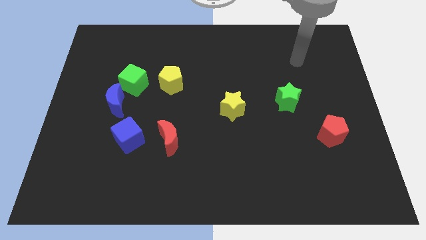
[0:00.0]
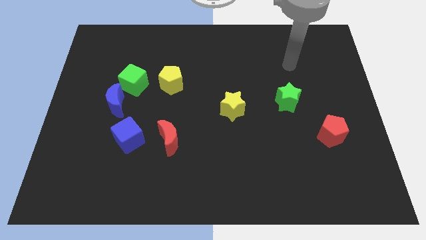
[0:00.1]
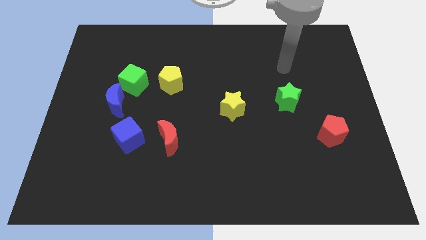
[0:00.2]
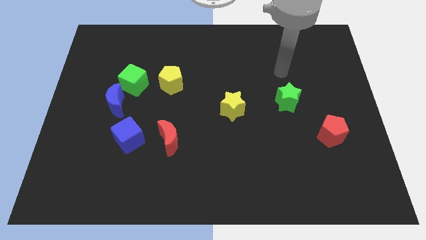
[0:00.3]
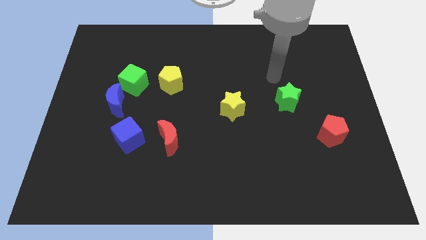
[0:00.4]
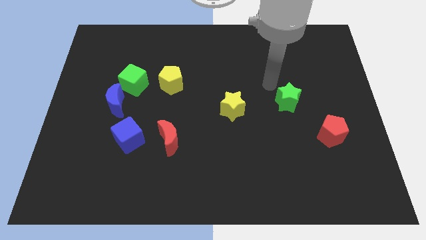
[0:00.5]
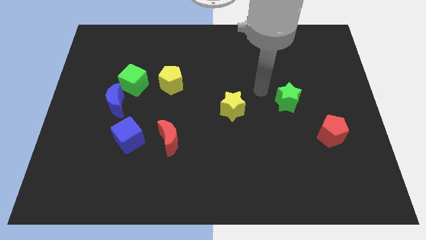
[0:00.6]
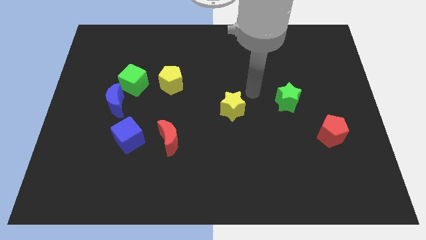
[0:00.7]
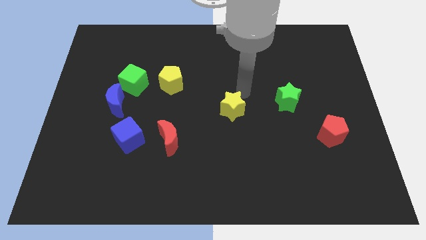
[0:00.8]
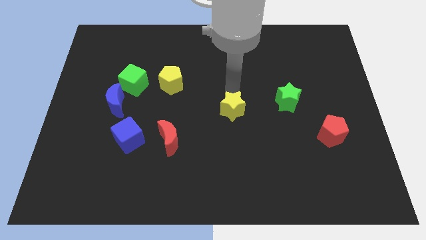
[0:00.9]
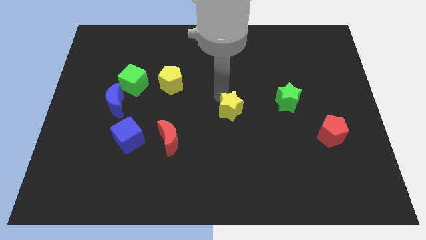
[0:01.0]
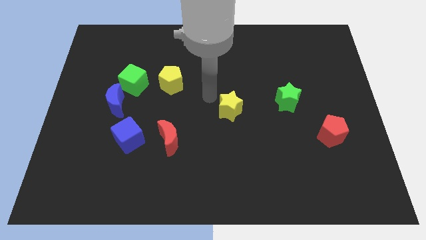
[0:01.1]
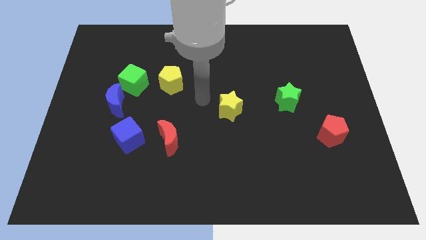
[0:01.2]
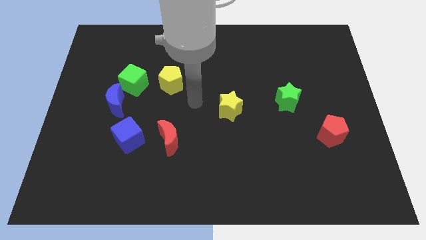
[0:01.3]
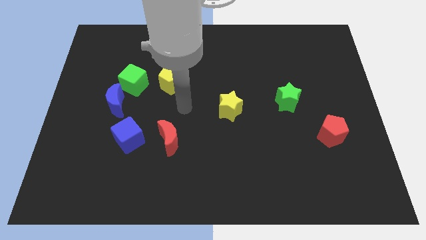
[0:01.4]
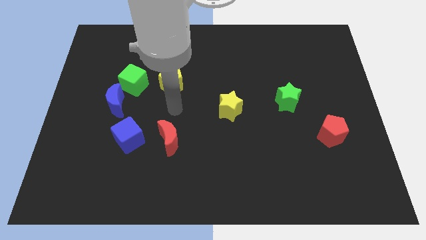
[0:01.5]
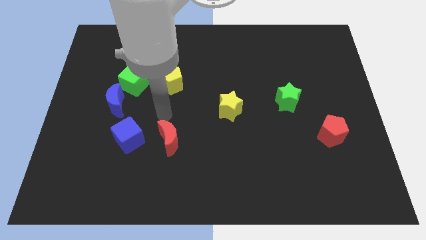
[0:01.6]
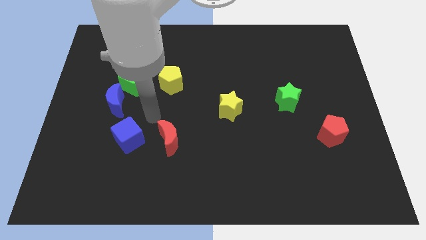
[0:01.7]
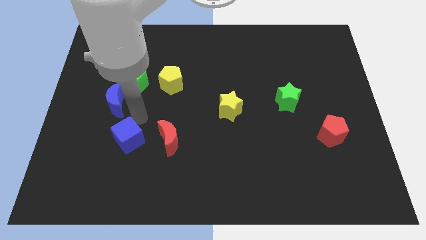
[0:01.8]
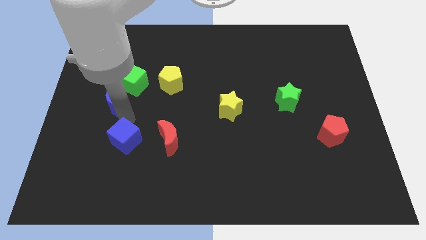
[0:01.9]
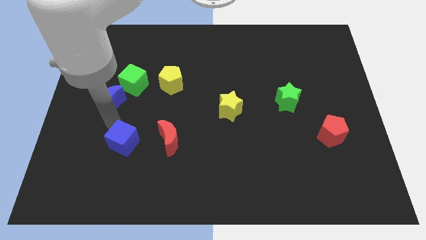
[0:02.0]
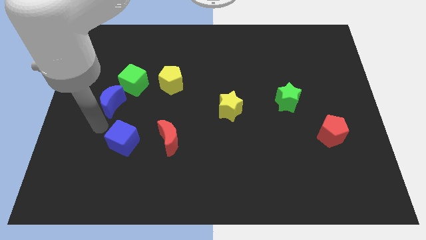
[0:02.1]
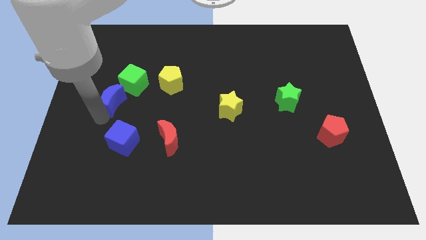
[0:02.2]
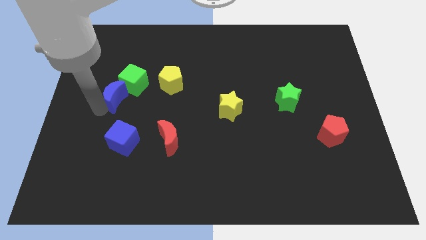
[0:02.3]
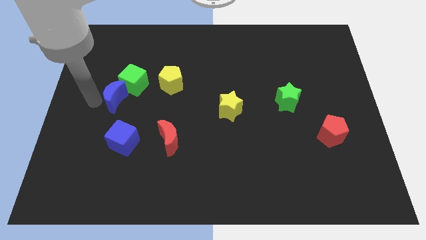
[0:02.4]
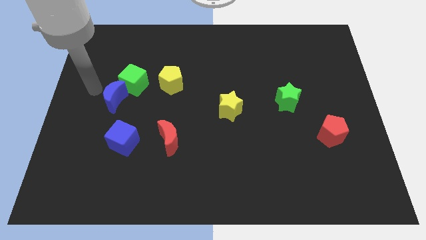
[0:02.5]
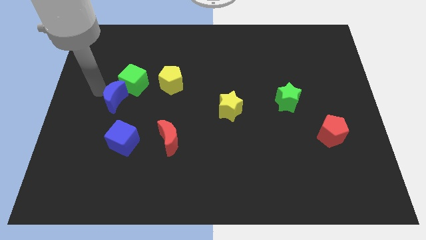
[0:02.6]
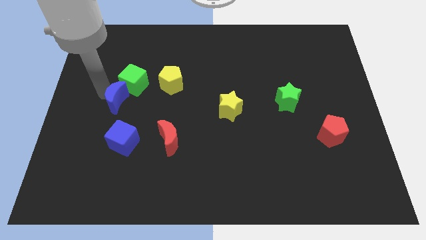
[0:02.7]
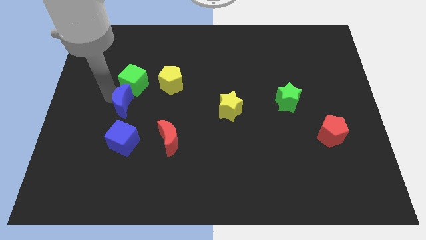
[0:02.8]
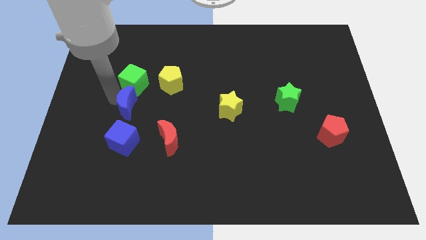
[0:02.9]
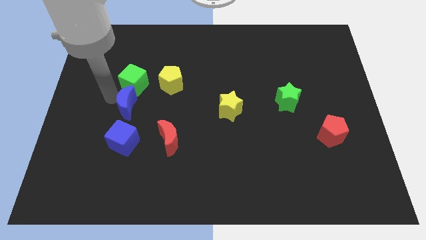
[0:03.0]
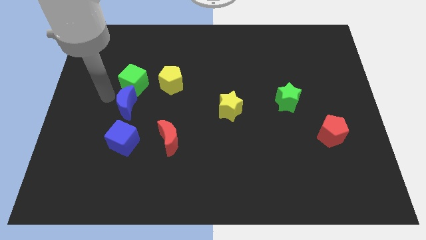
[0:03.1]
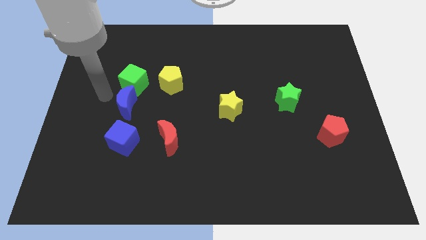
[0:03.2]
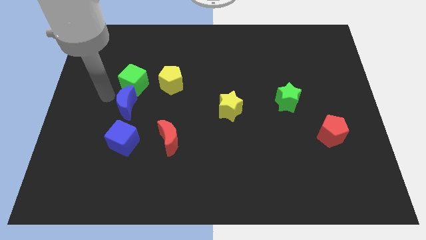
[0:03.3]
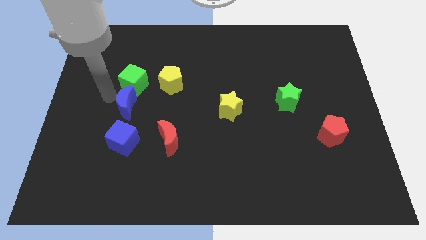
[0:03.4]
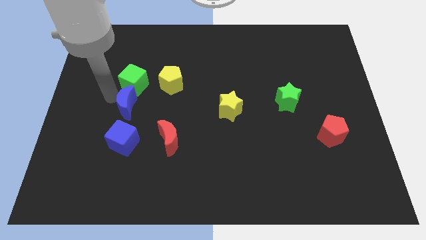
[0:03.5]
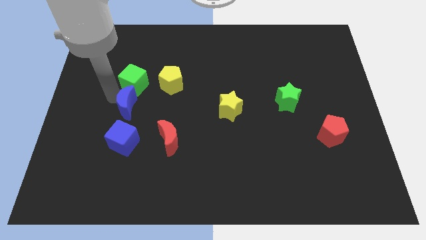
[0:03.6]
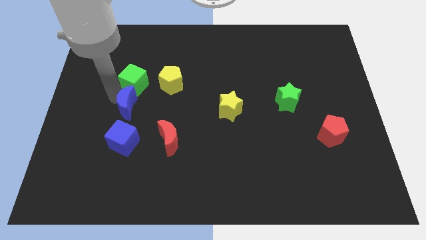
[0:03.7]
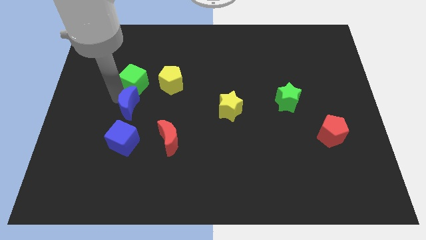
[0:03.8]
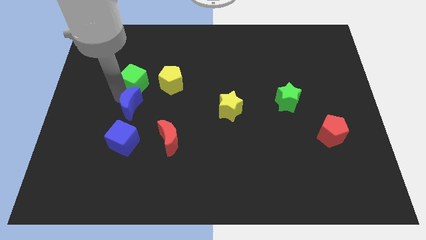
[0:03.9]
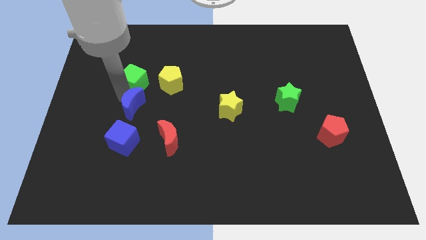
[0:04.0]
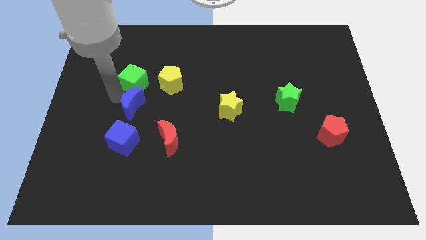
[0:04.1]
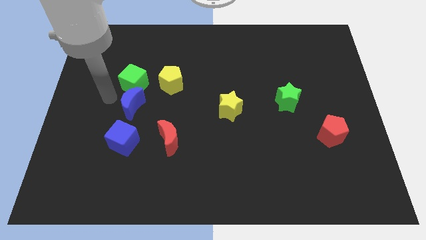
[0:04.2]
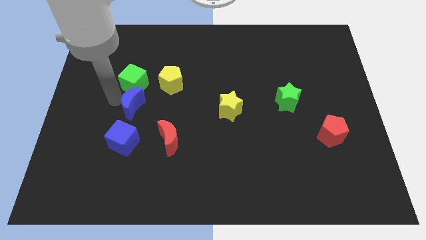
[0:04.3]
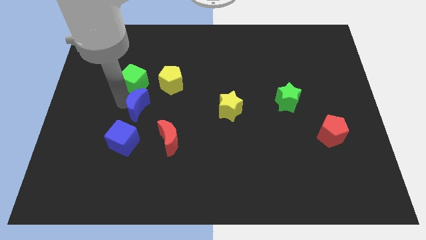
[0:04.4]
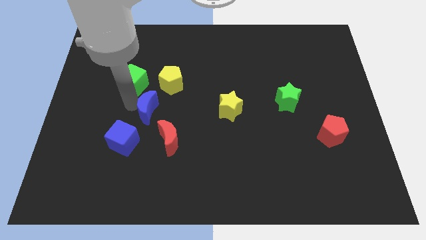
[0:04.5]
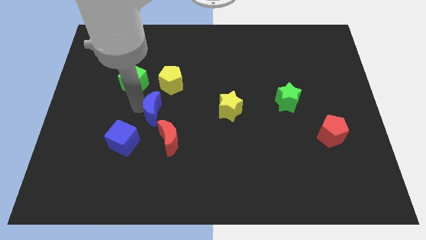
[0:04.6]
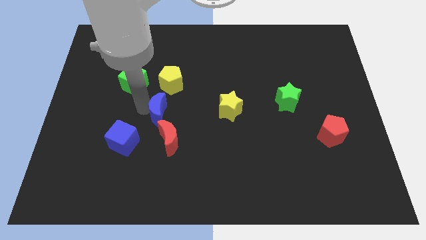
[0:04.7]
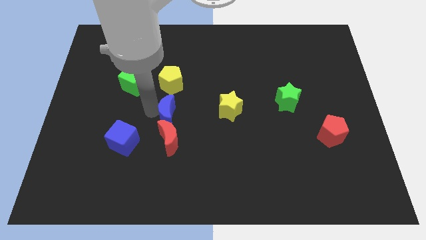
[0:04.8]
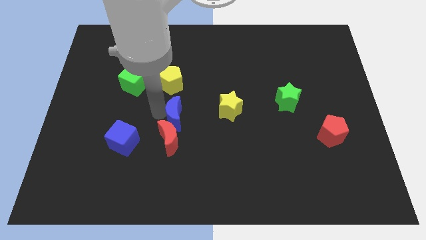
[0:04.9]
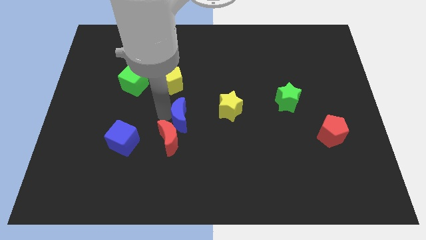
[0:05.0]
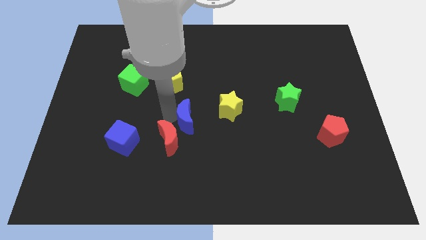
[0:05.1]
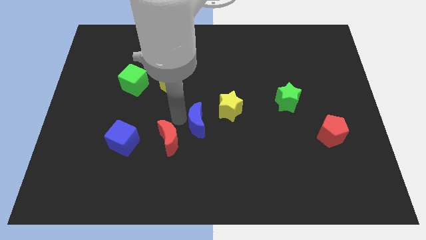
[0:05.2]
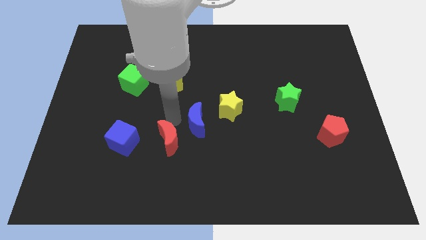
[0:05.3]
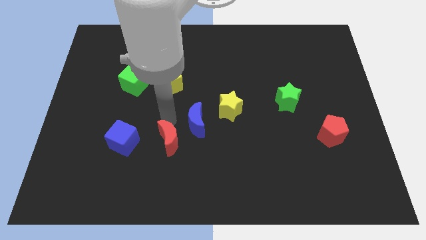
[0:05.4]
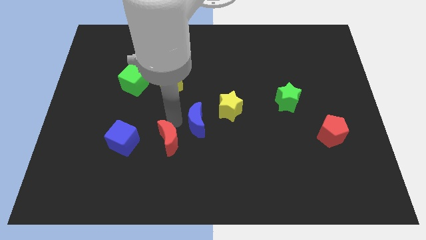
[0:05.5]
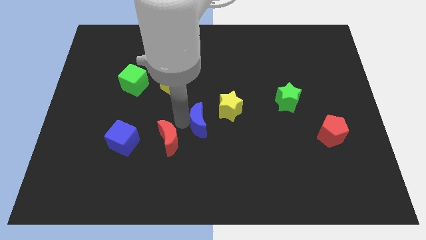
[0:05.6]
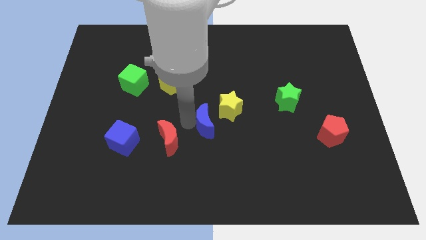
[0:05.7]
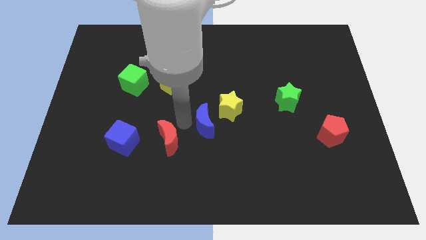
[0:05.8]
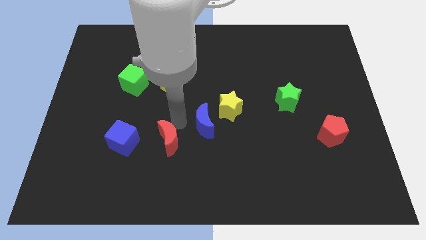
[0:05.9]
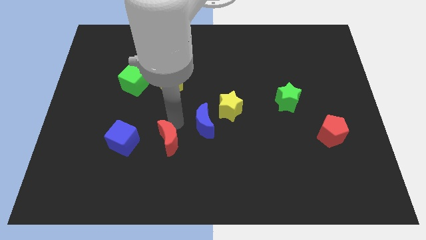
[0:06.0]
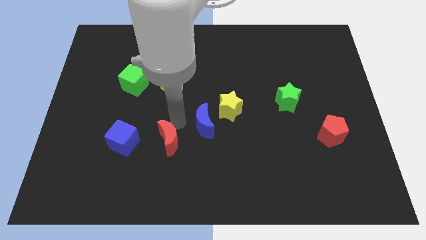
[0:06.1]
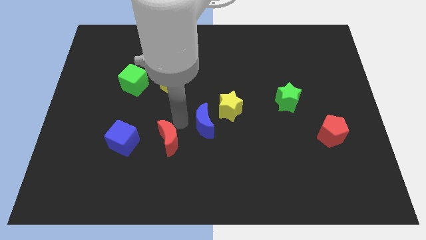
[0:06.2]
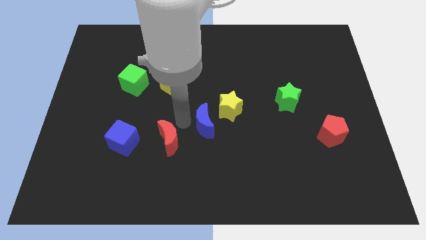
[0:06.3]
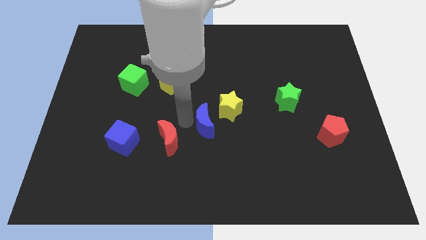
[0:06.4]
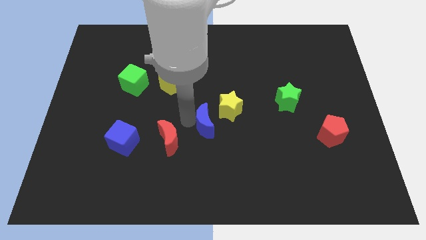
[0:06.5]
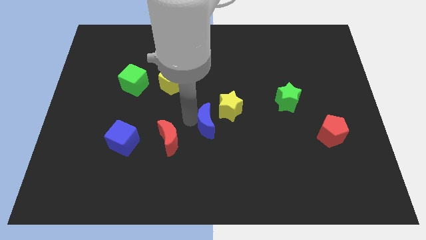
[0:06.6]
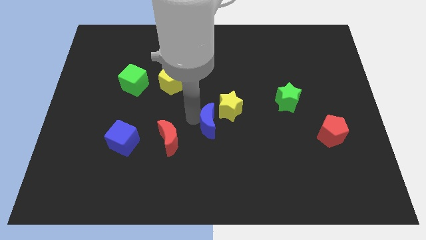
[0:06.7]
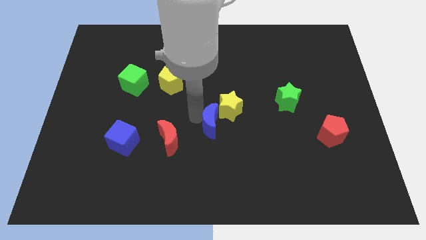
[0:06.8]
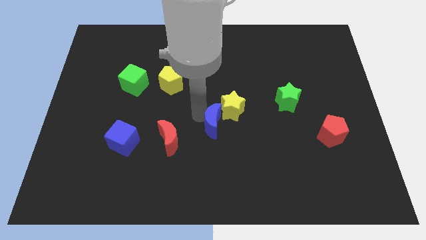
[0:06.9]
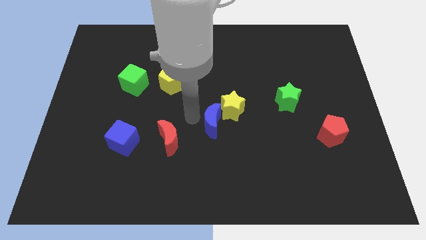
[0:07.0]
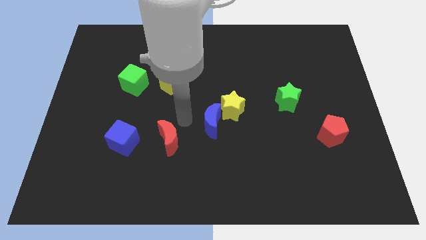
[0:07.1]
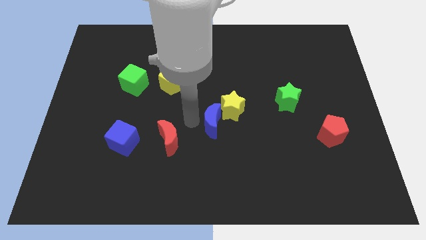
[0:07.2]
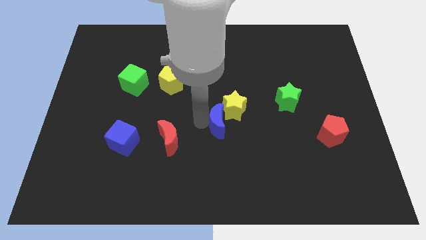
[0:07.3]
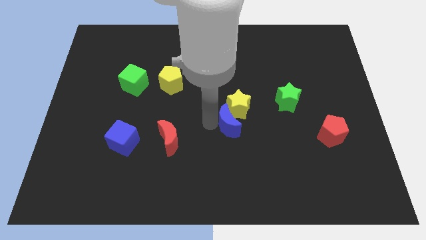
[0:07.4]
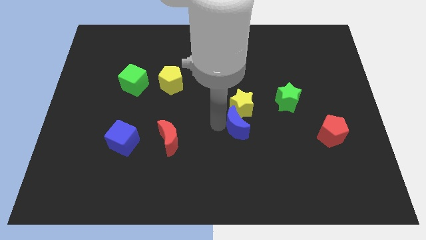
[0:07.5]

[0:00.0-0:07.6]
put the blue moon to the bottom right of the yellow star
